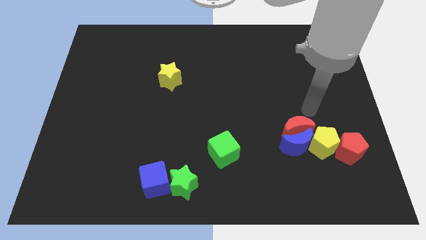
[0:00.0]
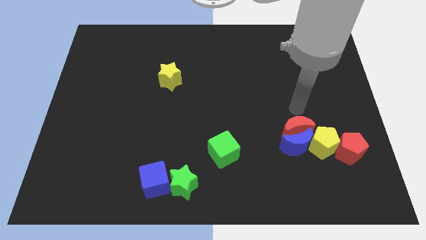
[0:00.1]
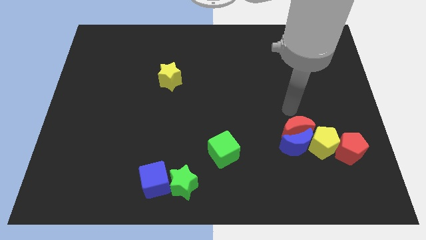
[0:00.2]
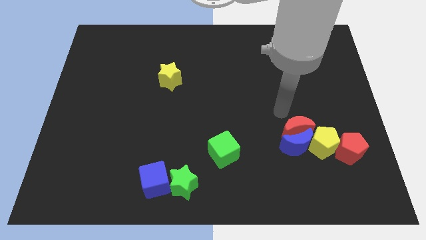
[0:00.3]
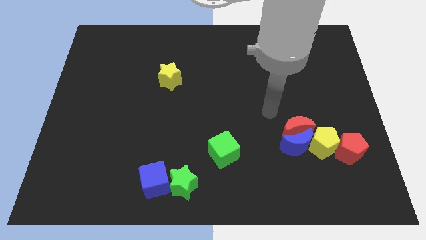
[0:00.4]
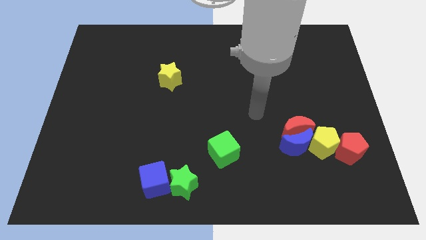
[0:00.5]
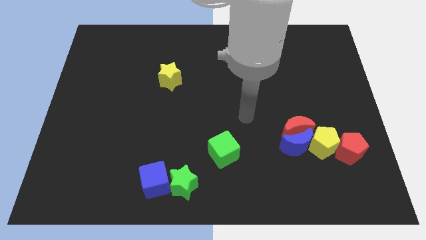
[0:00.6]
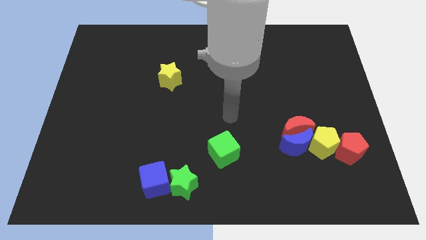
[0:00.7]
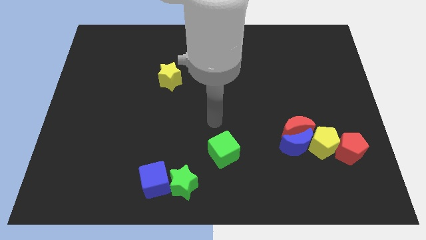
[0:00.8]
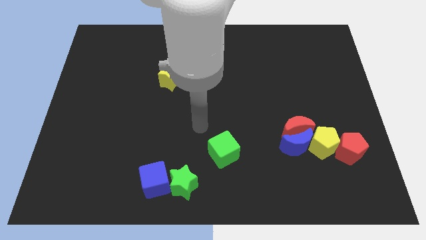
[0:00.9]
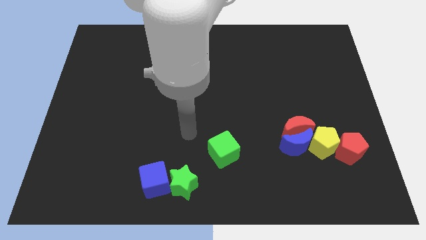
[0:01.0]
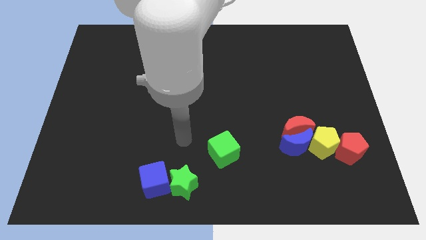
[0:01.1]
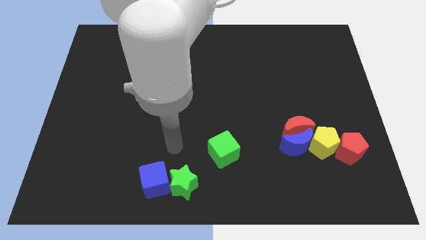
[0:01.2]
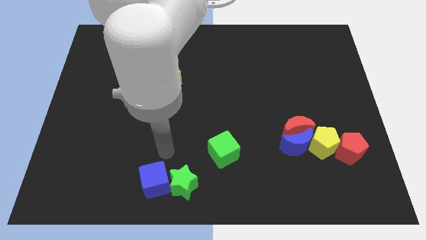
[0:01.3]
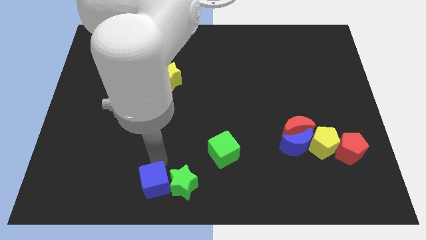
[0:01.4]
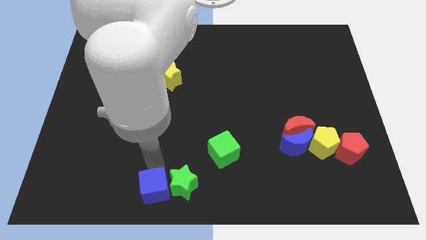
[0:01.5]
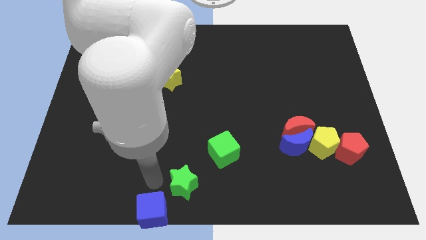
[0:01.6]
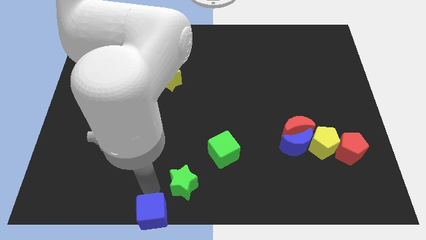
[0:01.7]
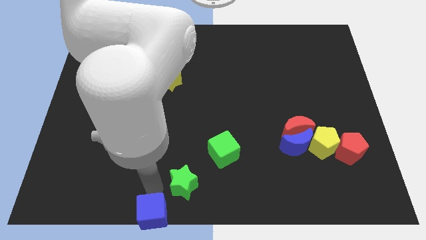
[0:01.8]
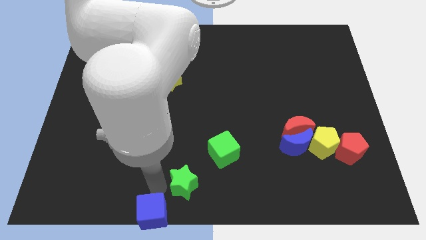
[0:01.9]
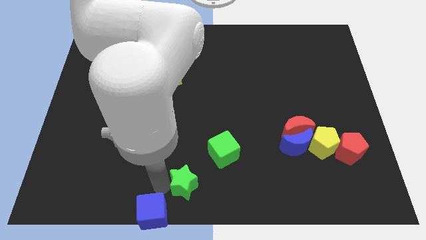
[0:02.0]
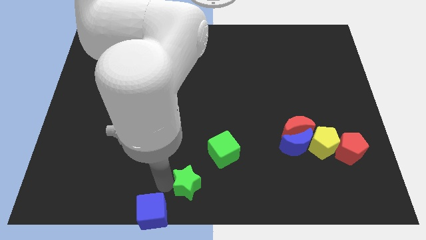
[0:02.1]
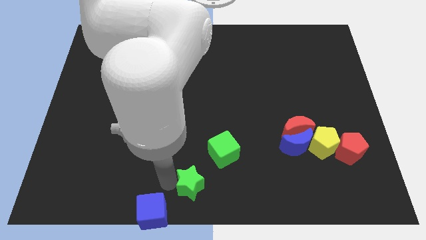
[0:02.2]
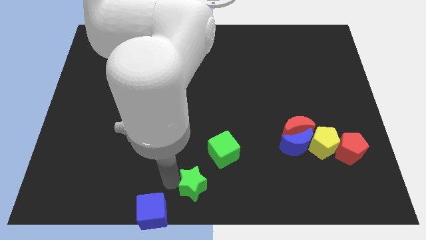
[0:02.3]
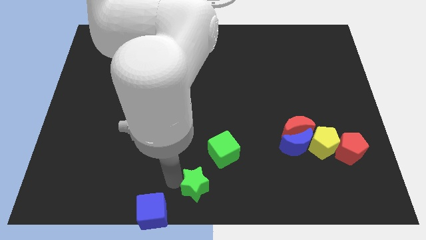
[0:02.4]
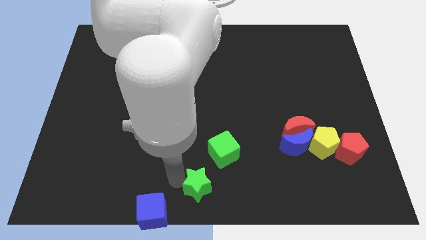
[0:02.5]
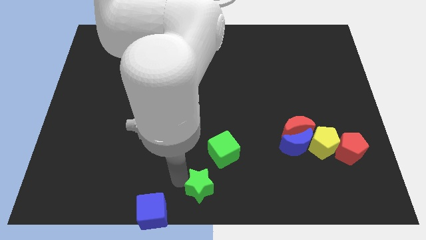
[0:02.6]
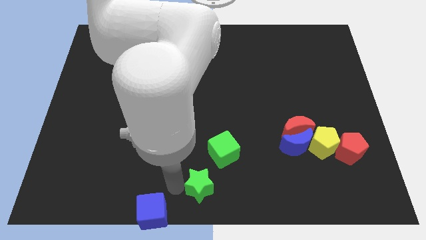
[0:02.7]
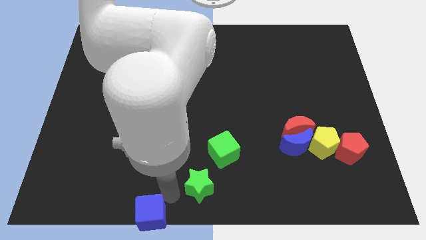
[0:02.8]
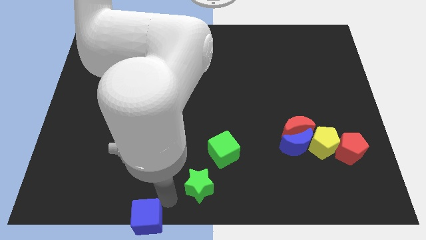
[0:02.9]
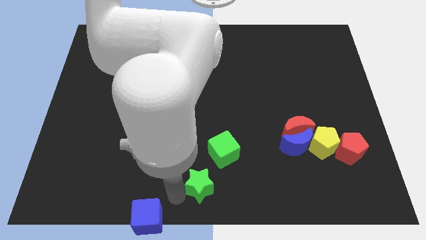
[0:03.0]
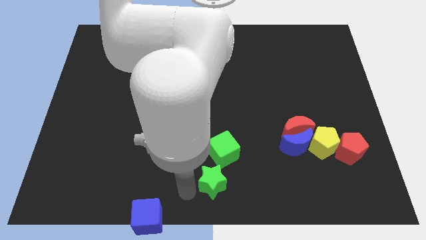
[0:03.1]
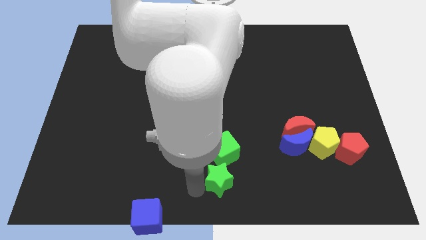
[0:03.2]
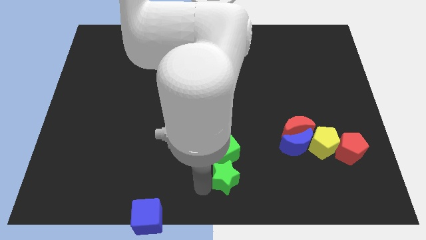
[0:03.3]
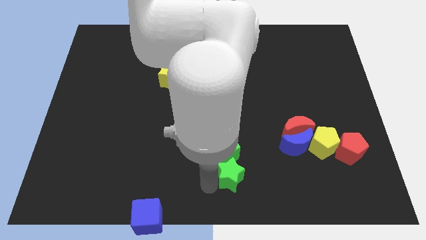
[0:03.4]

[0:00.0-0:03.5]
slide the green star a little upwards and then to the right

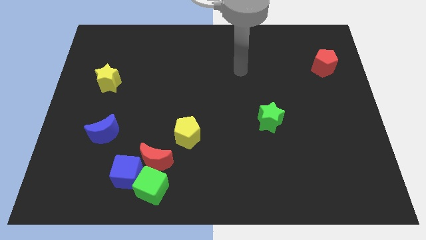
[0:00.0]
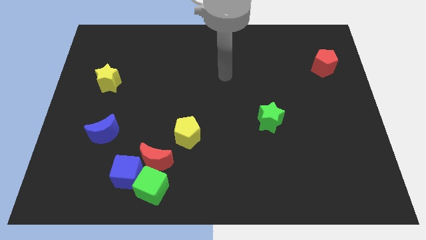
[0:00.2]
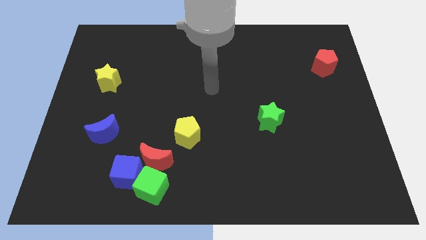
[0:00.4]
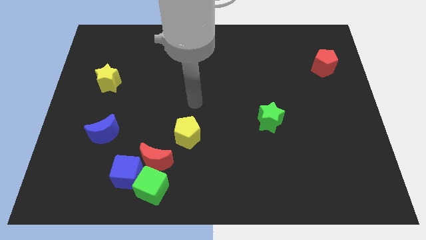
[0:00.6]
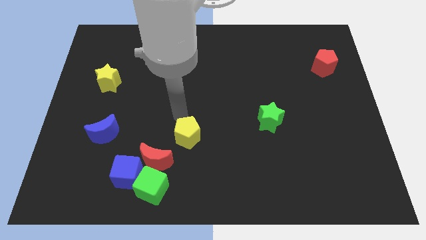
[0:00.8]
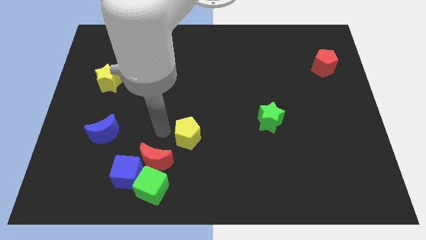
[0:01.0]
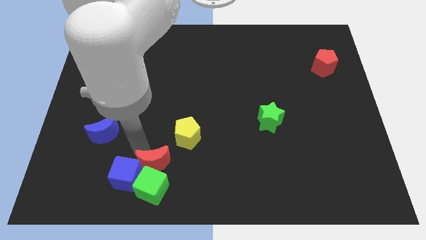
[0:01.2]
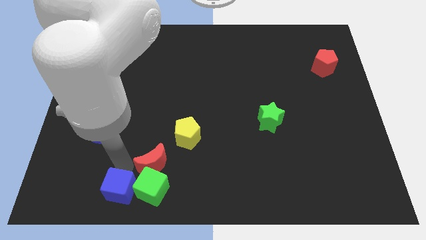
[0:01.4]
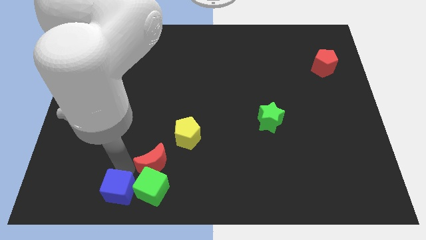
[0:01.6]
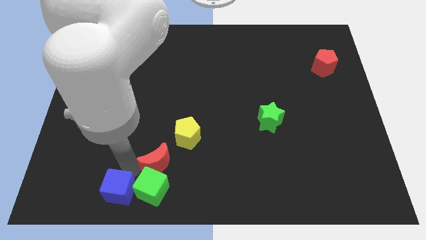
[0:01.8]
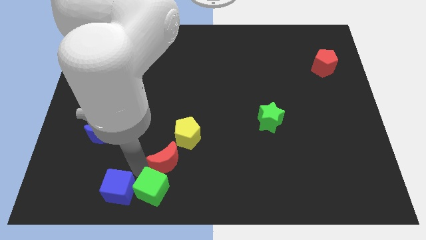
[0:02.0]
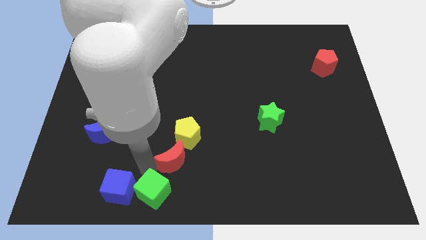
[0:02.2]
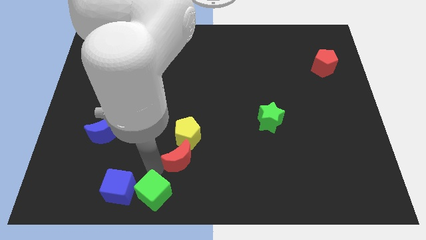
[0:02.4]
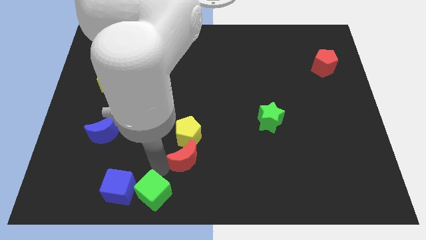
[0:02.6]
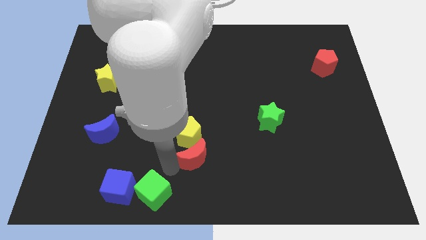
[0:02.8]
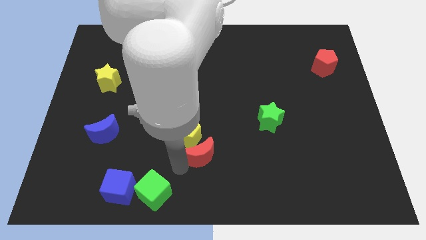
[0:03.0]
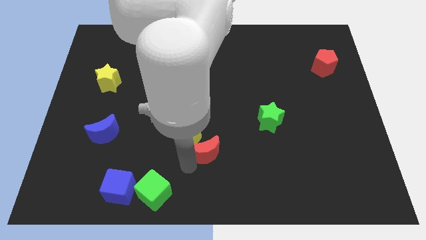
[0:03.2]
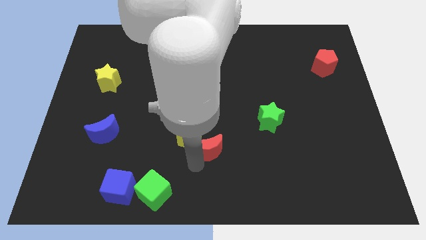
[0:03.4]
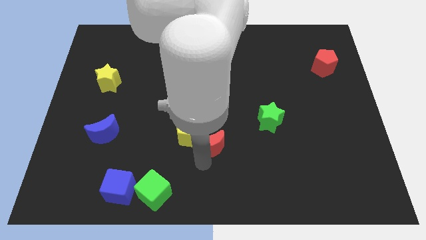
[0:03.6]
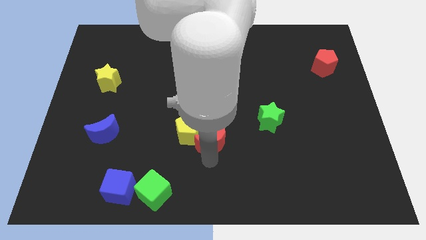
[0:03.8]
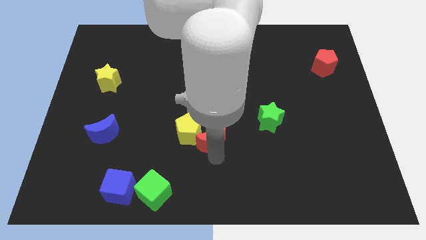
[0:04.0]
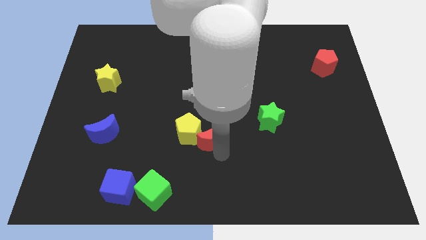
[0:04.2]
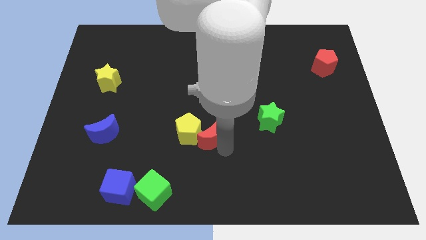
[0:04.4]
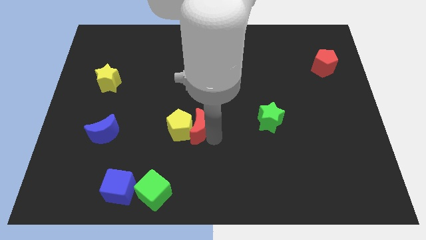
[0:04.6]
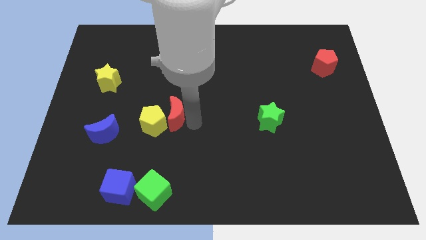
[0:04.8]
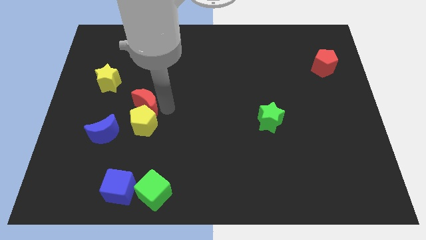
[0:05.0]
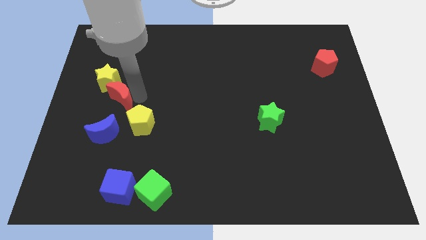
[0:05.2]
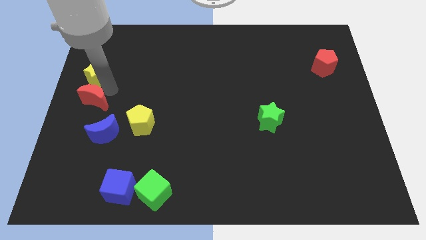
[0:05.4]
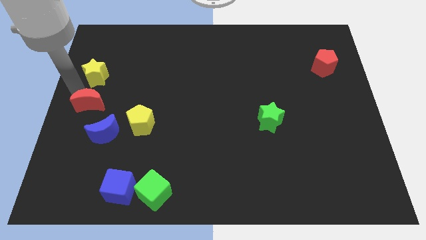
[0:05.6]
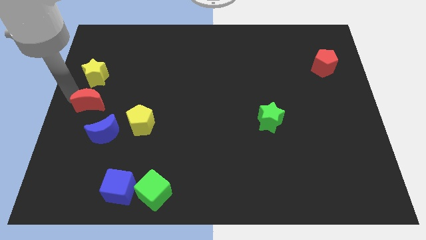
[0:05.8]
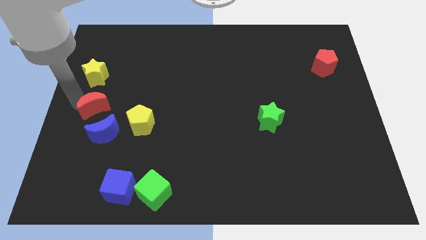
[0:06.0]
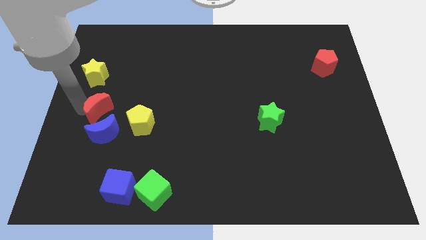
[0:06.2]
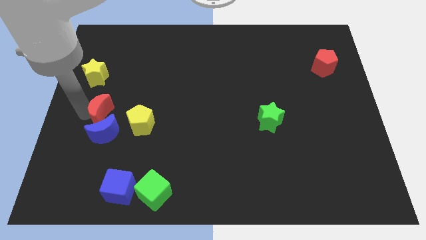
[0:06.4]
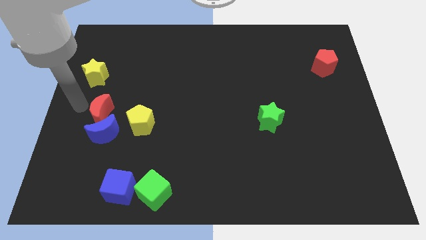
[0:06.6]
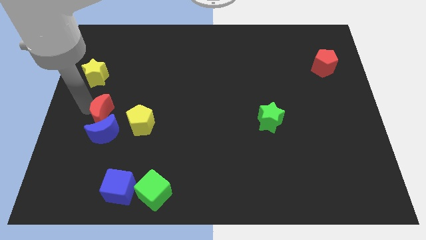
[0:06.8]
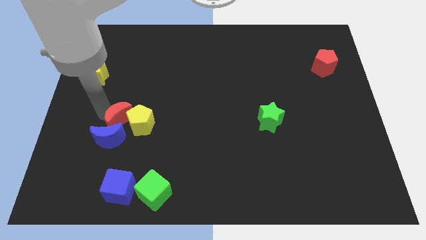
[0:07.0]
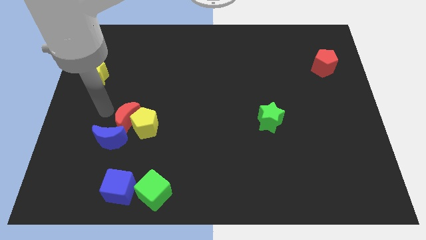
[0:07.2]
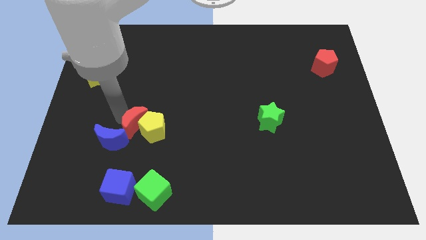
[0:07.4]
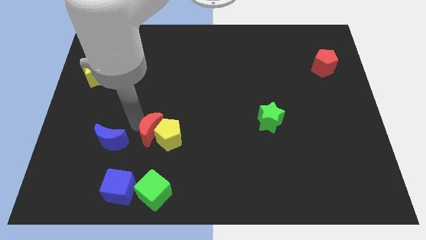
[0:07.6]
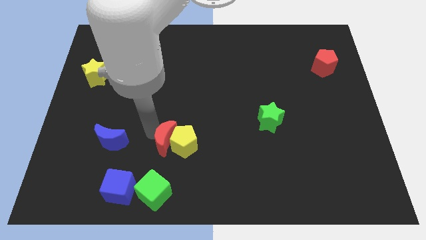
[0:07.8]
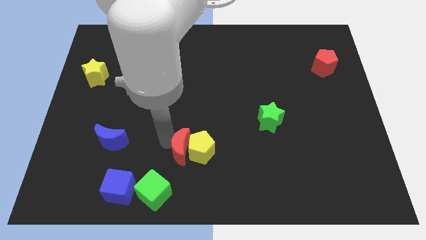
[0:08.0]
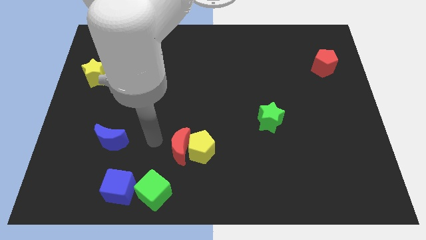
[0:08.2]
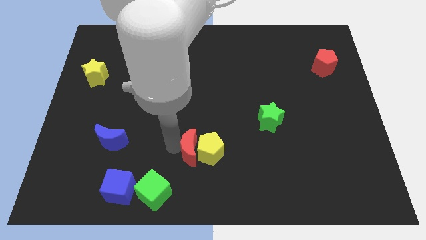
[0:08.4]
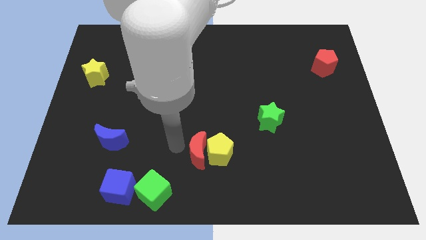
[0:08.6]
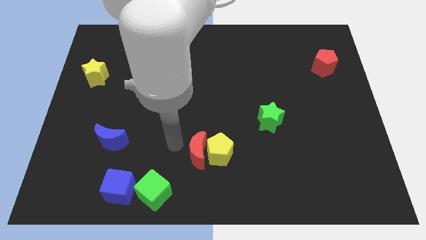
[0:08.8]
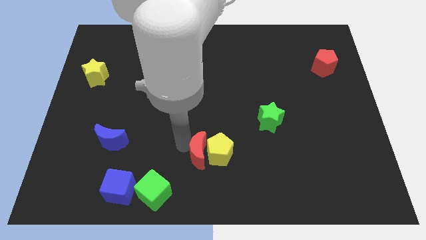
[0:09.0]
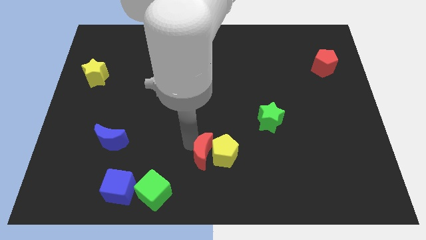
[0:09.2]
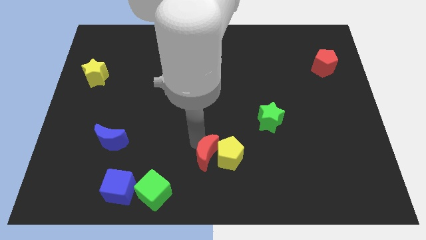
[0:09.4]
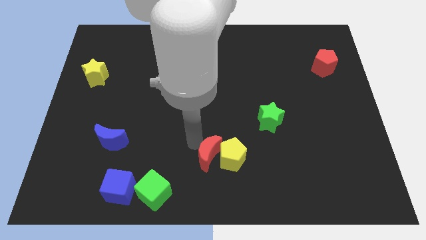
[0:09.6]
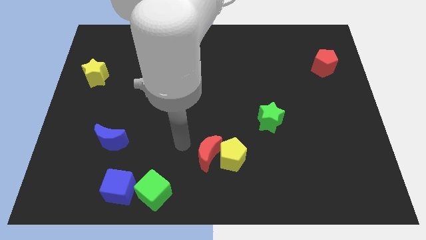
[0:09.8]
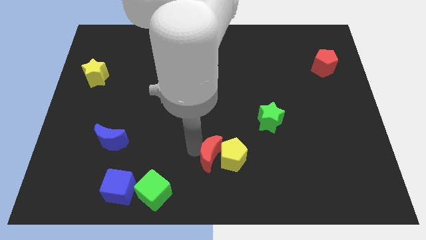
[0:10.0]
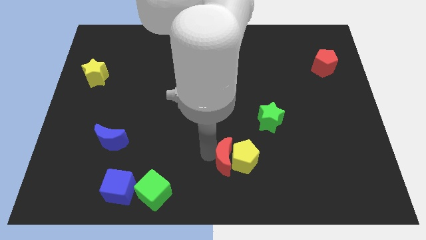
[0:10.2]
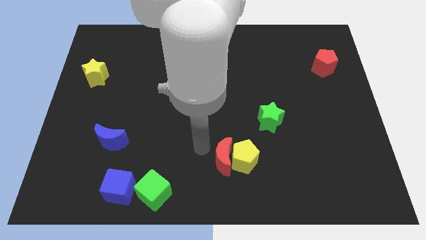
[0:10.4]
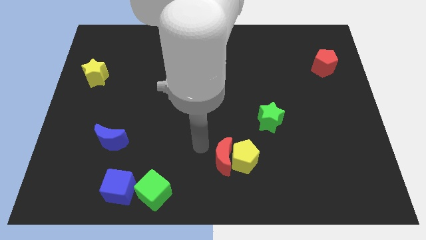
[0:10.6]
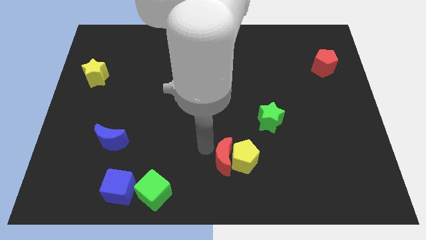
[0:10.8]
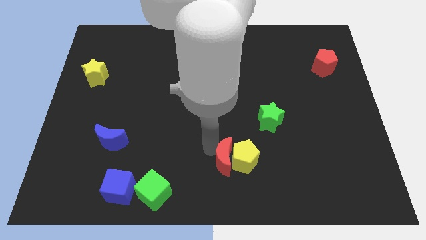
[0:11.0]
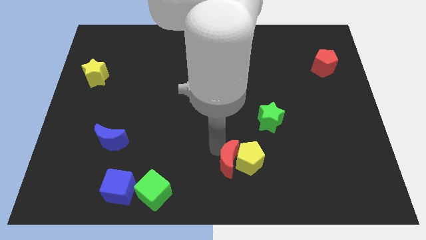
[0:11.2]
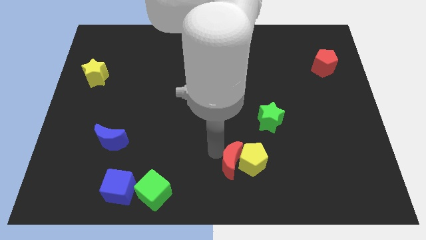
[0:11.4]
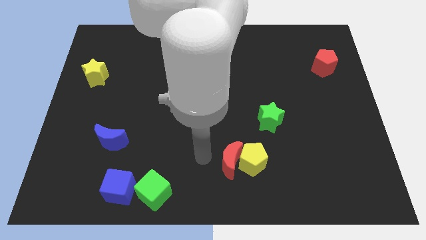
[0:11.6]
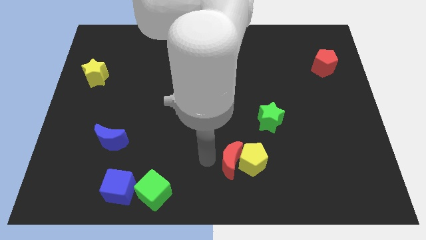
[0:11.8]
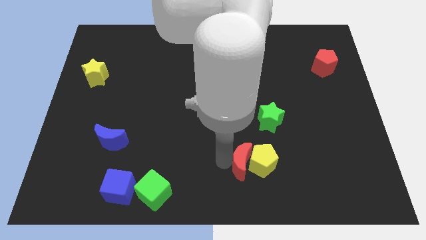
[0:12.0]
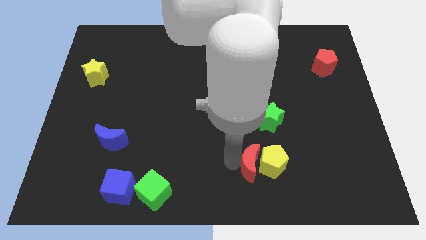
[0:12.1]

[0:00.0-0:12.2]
slide the red moon to the right
